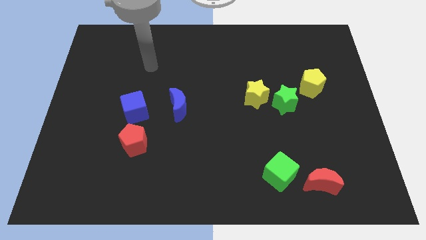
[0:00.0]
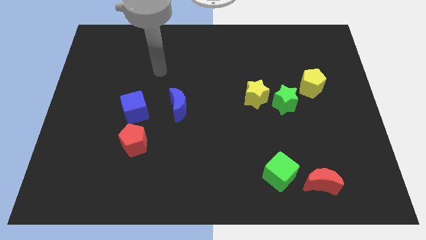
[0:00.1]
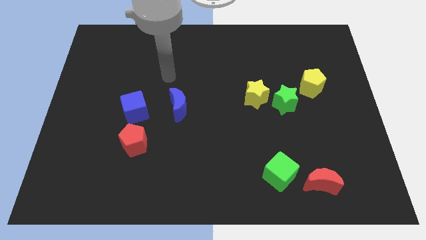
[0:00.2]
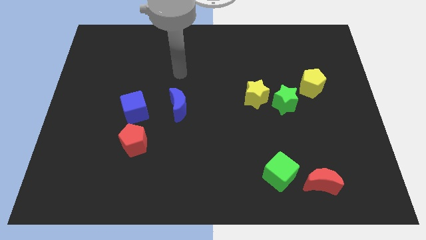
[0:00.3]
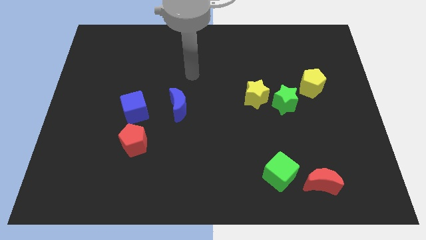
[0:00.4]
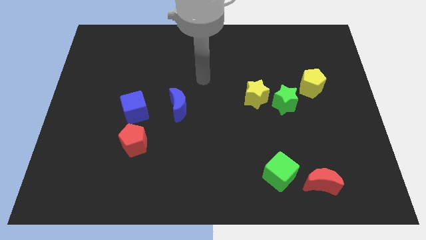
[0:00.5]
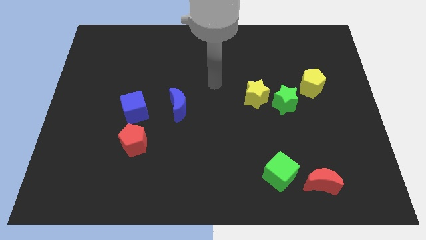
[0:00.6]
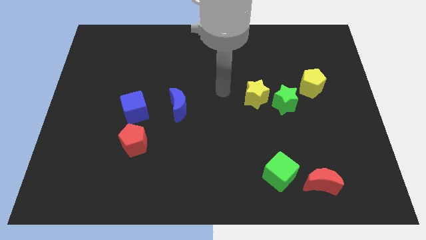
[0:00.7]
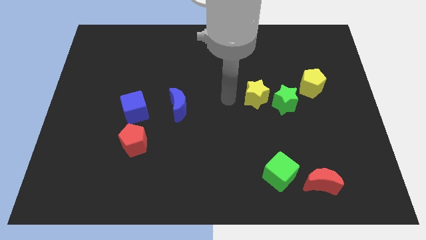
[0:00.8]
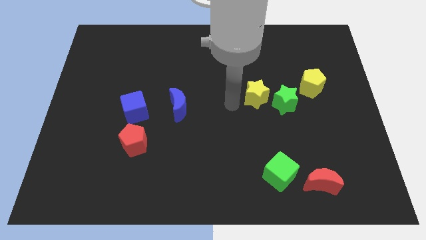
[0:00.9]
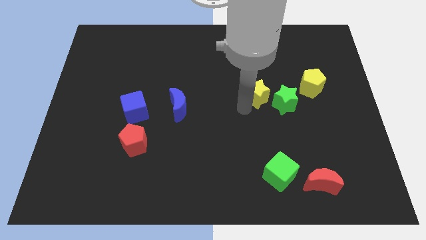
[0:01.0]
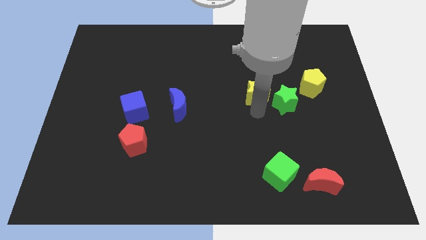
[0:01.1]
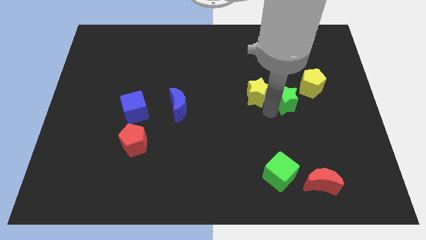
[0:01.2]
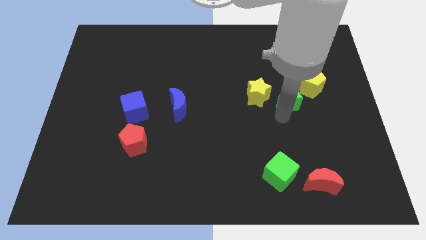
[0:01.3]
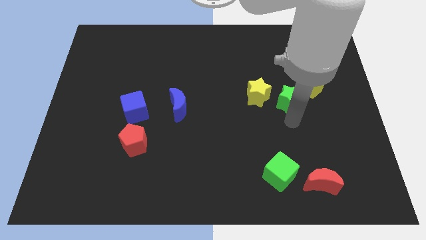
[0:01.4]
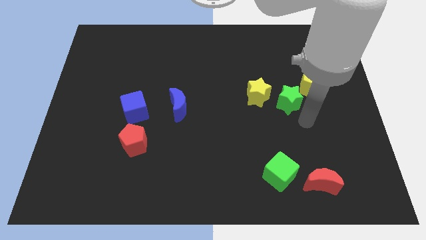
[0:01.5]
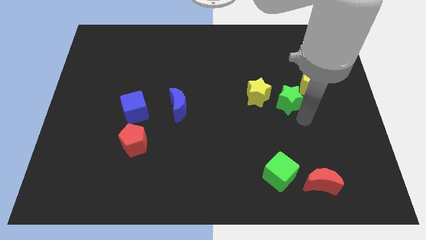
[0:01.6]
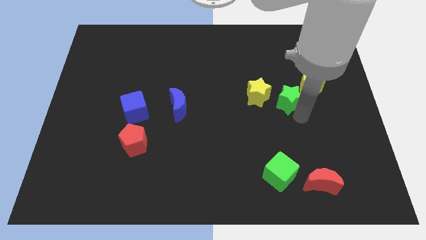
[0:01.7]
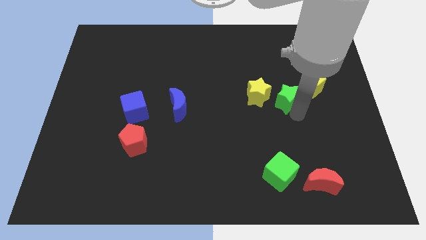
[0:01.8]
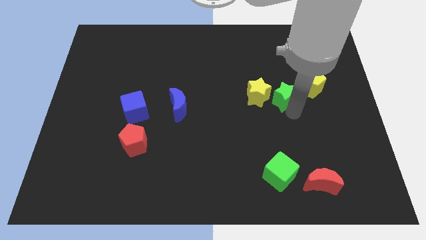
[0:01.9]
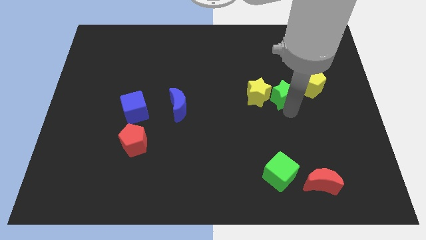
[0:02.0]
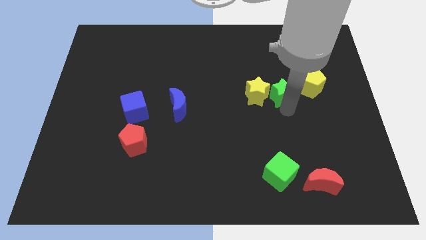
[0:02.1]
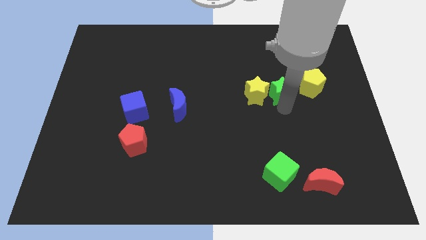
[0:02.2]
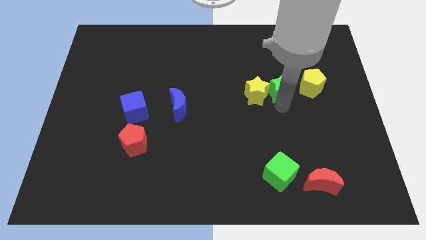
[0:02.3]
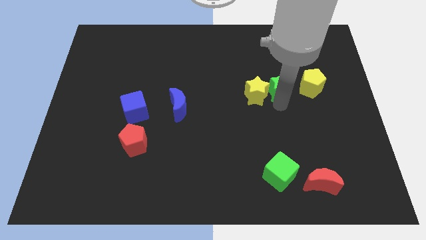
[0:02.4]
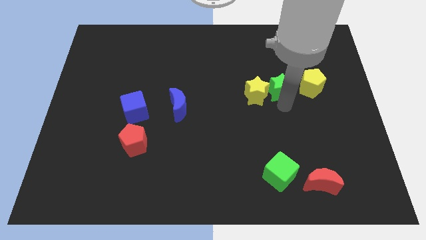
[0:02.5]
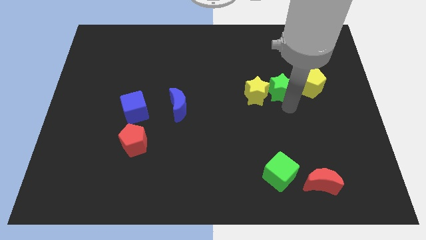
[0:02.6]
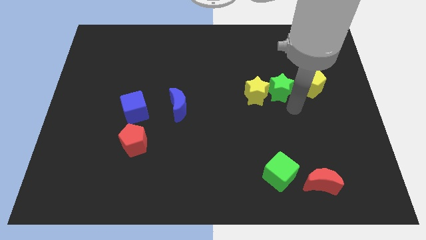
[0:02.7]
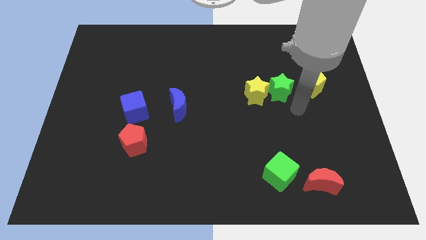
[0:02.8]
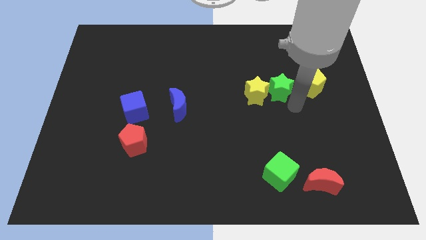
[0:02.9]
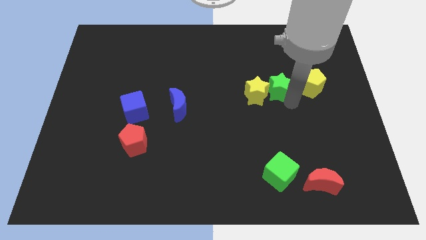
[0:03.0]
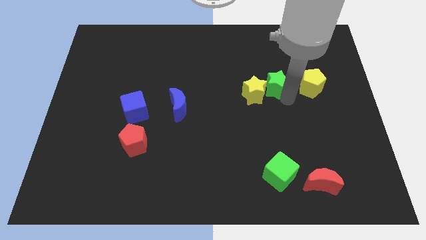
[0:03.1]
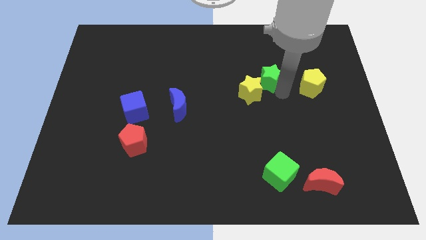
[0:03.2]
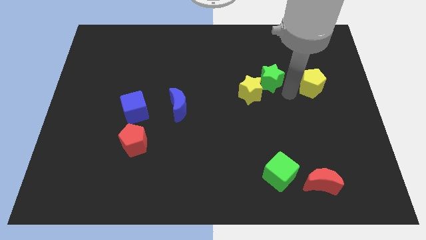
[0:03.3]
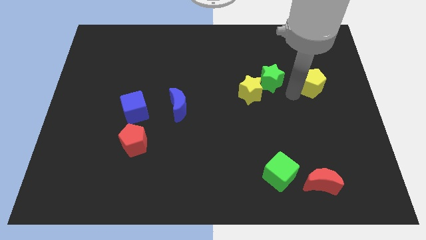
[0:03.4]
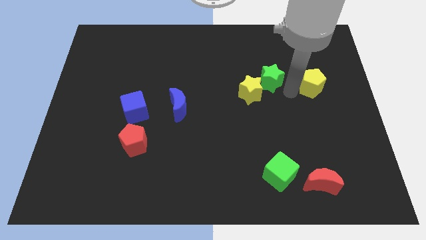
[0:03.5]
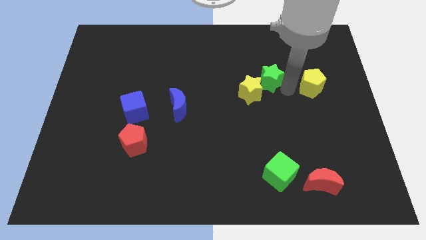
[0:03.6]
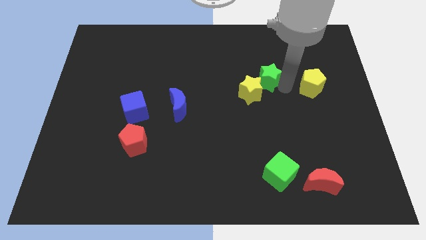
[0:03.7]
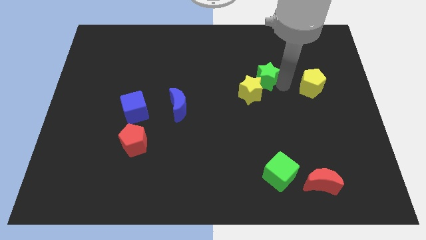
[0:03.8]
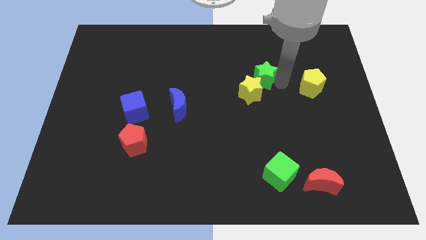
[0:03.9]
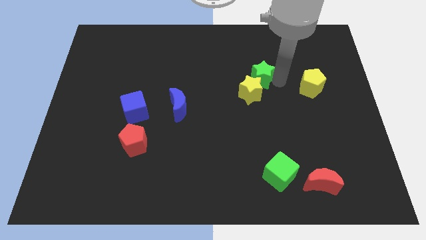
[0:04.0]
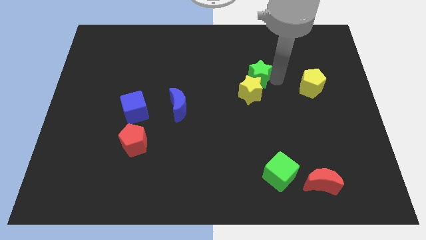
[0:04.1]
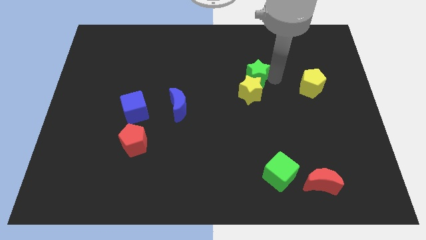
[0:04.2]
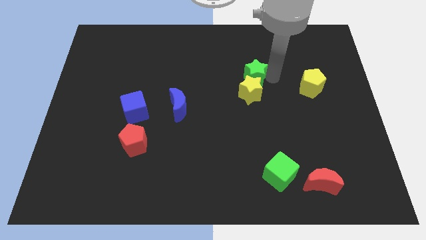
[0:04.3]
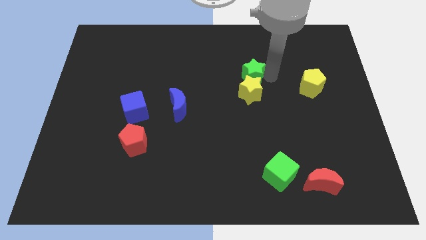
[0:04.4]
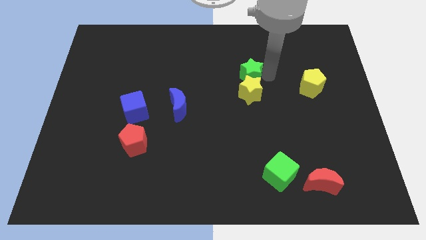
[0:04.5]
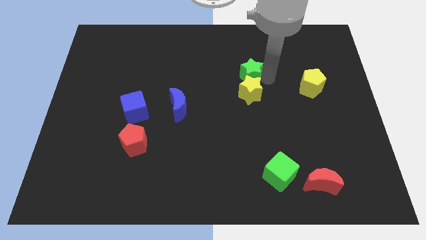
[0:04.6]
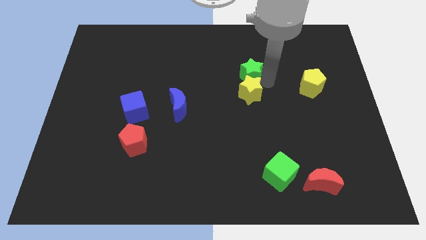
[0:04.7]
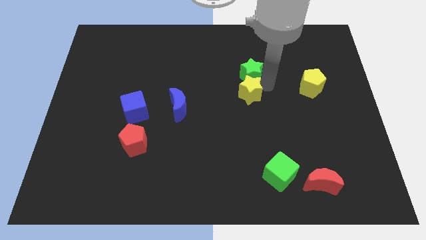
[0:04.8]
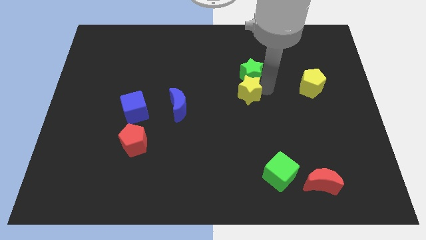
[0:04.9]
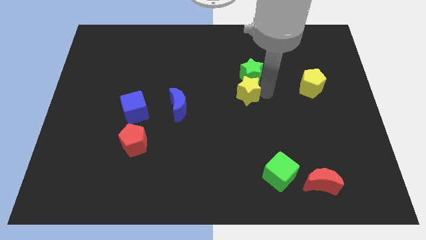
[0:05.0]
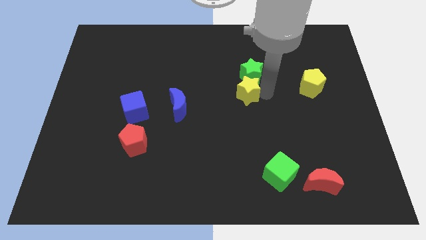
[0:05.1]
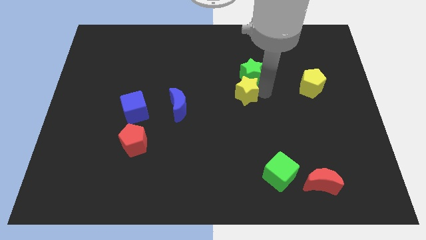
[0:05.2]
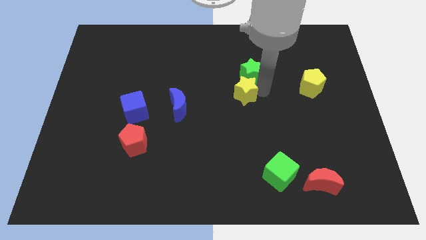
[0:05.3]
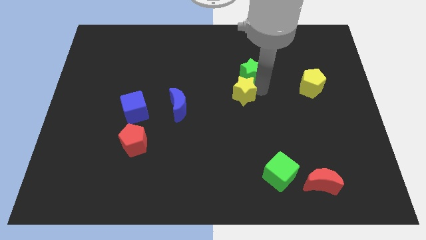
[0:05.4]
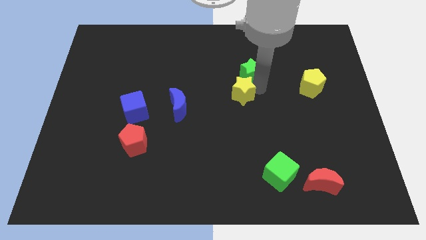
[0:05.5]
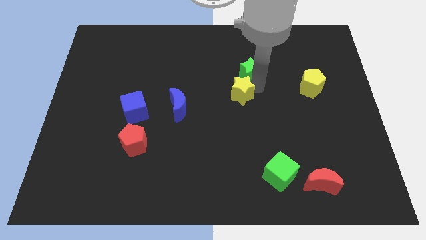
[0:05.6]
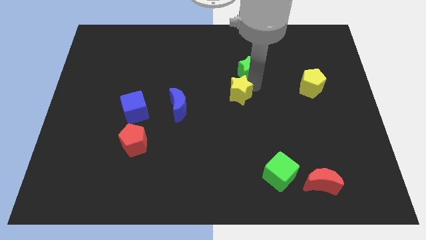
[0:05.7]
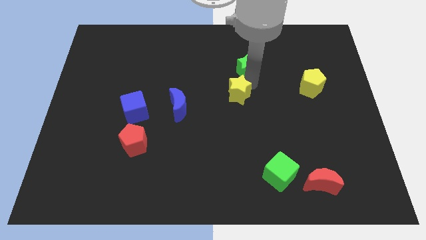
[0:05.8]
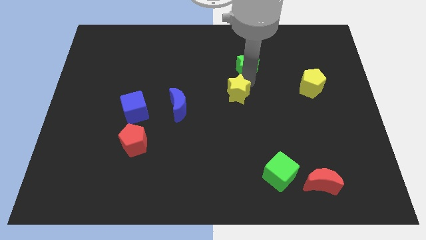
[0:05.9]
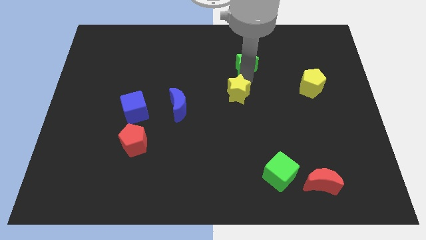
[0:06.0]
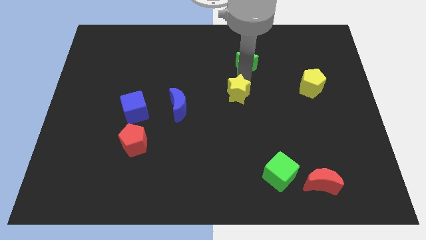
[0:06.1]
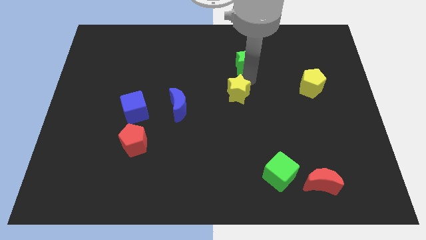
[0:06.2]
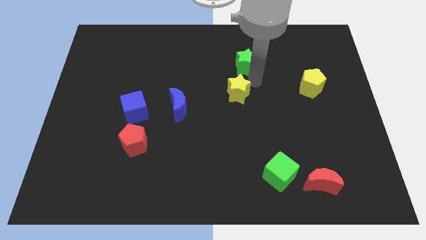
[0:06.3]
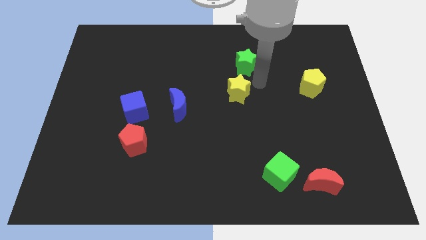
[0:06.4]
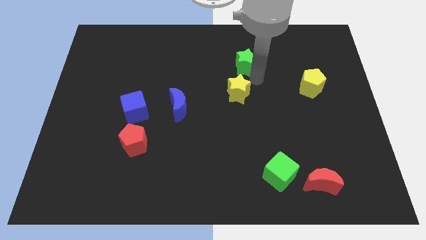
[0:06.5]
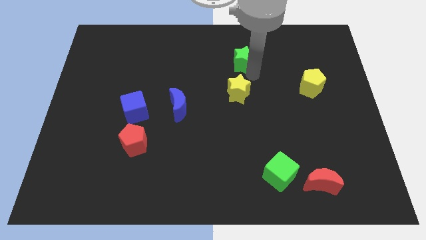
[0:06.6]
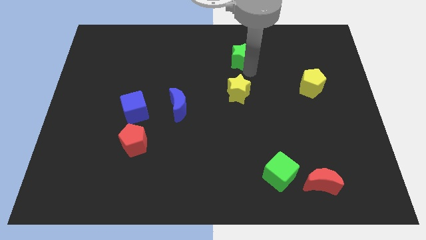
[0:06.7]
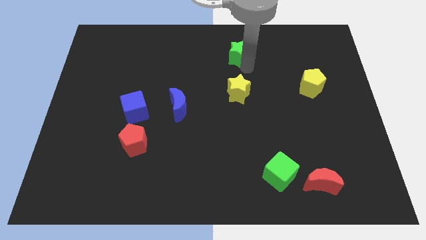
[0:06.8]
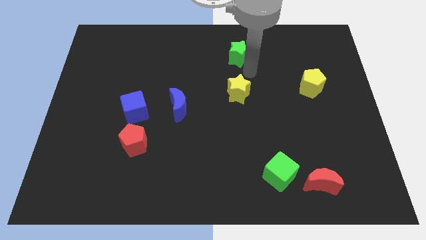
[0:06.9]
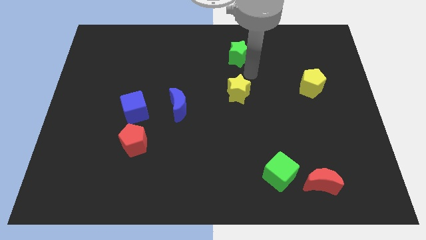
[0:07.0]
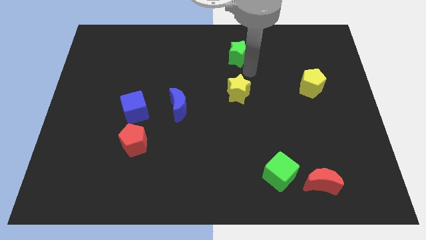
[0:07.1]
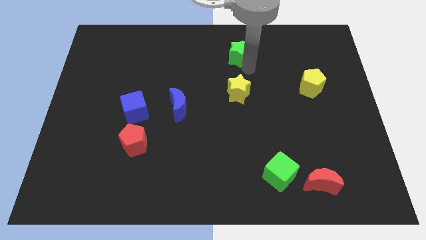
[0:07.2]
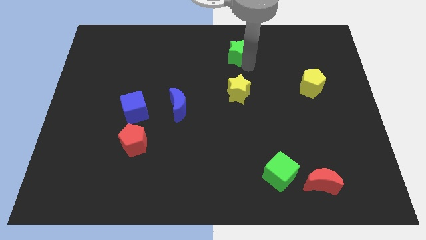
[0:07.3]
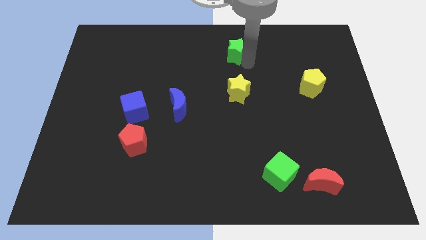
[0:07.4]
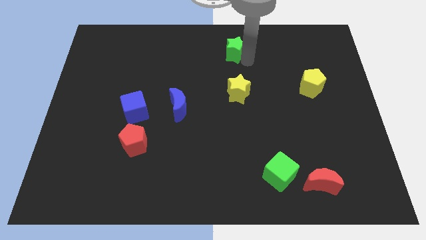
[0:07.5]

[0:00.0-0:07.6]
put the green star to the towards your base
